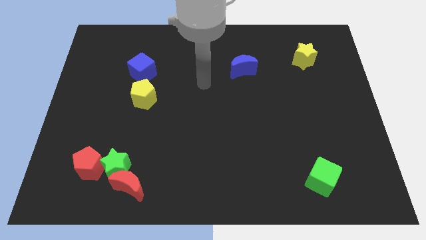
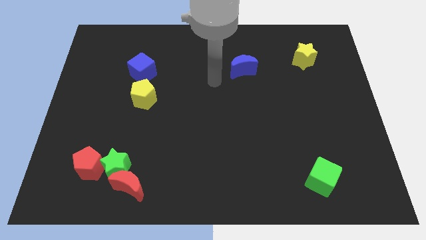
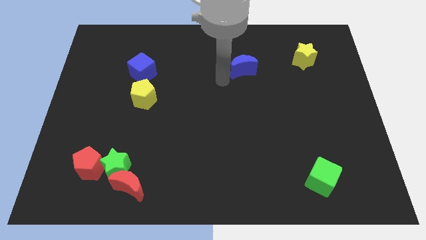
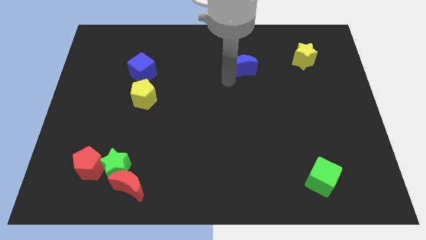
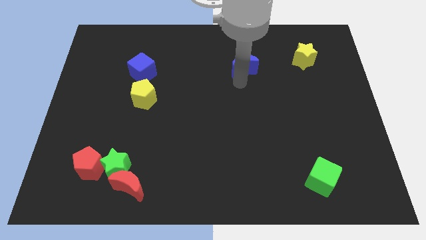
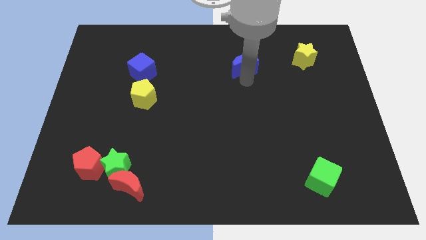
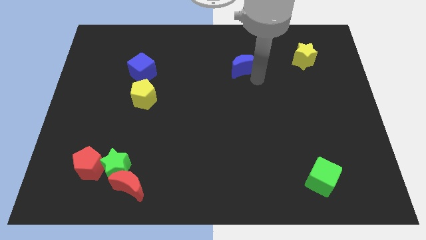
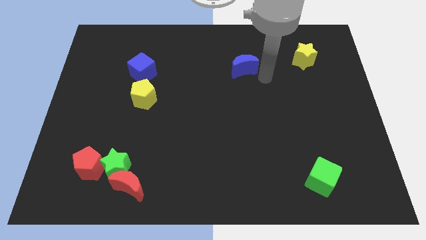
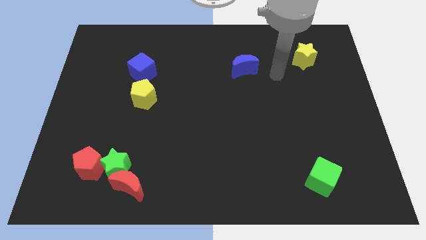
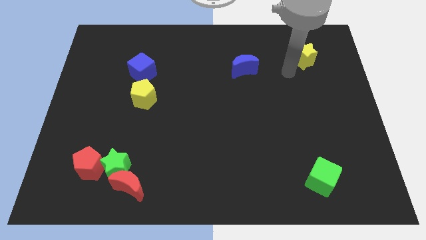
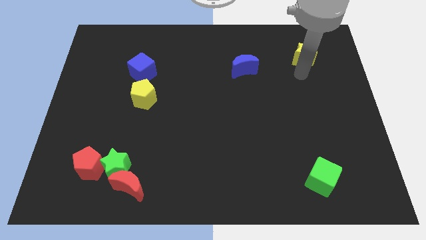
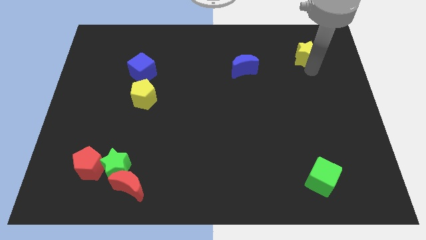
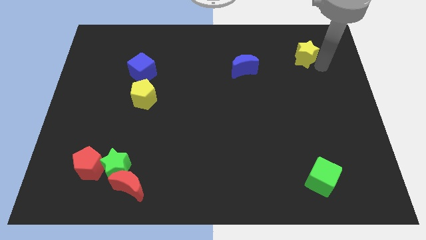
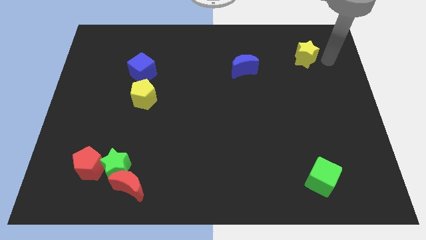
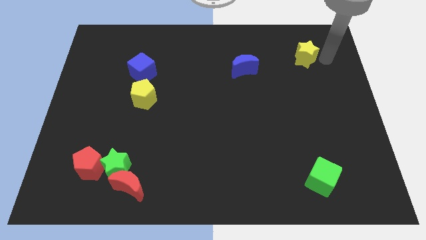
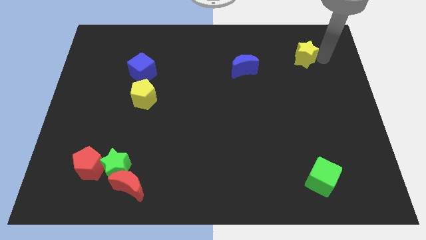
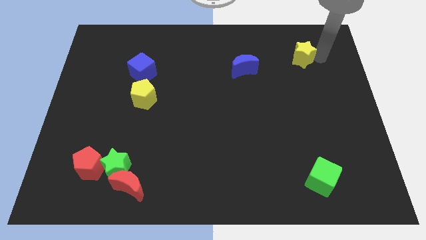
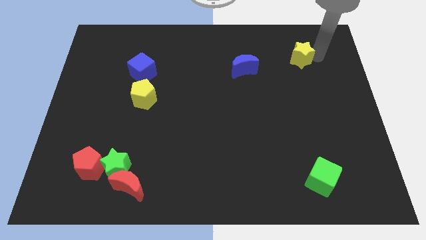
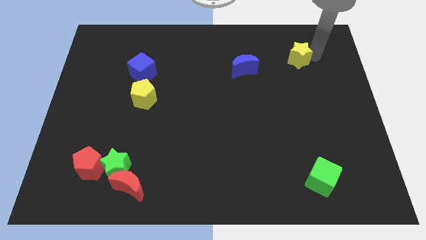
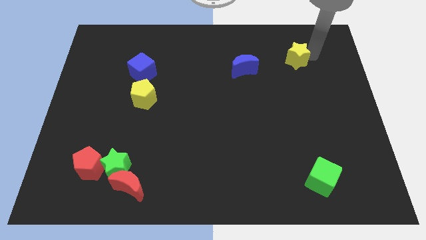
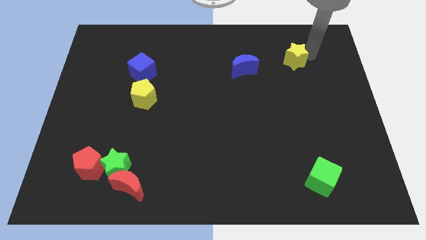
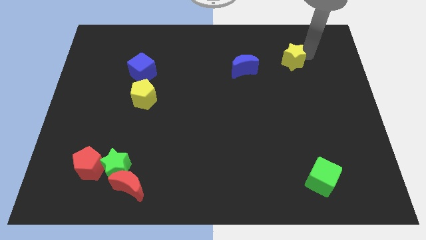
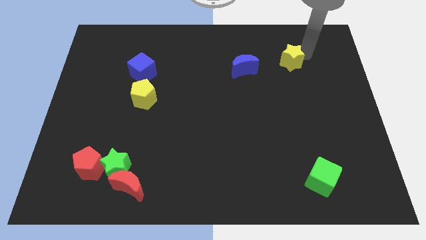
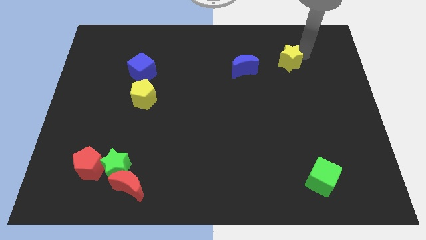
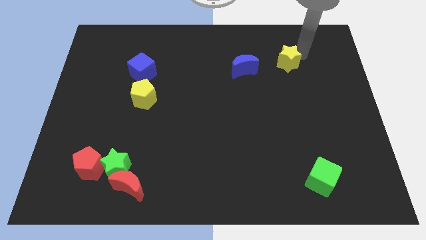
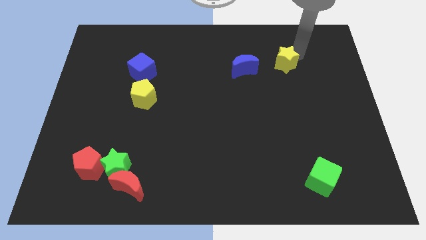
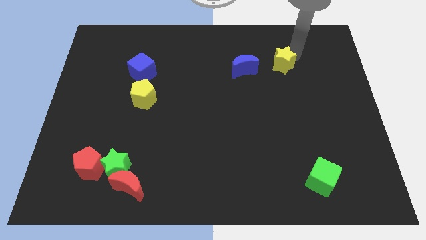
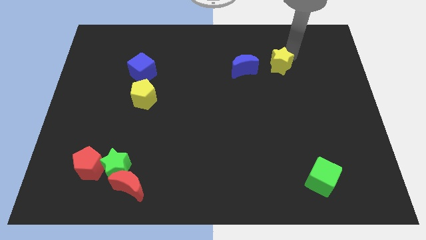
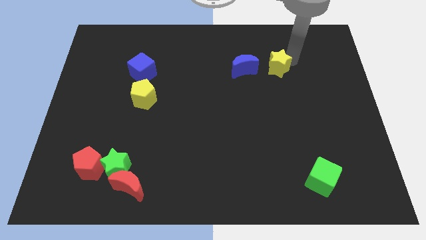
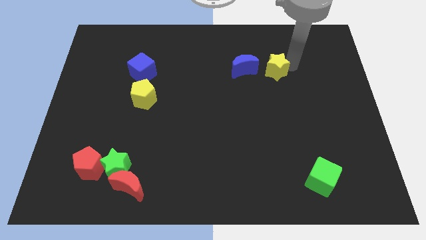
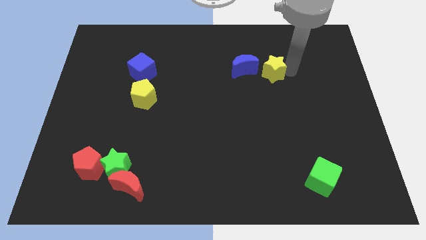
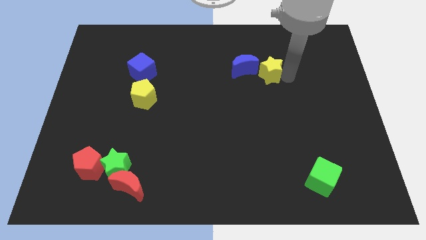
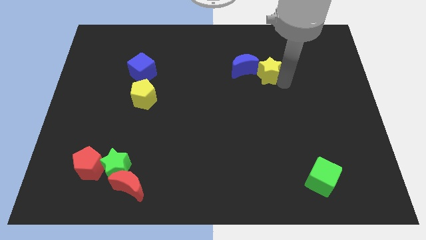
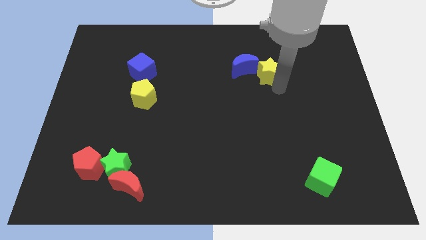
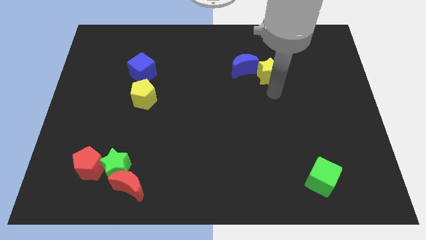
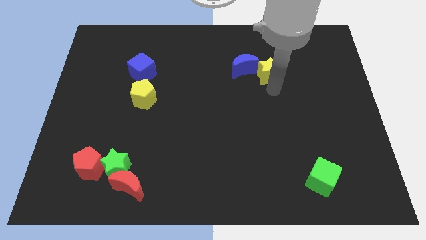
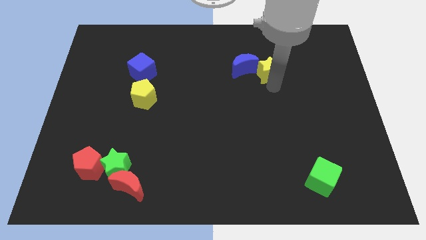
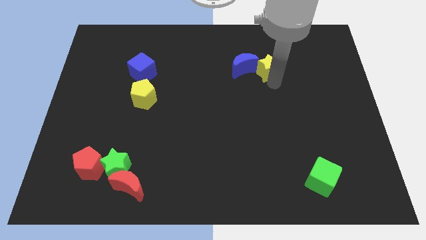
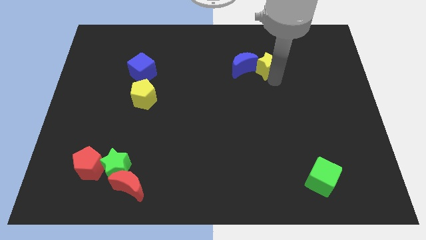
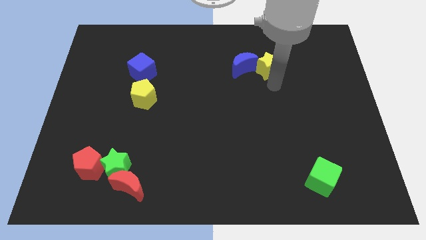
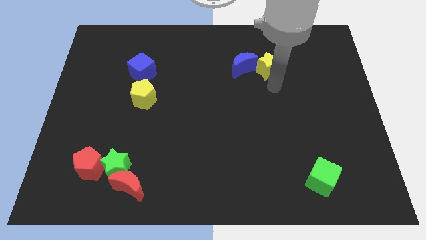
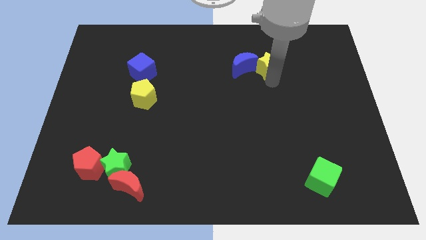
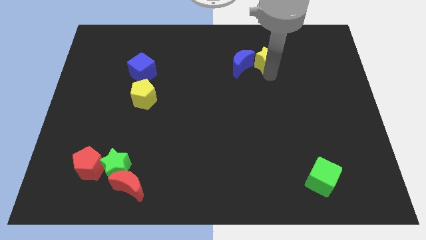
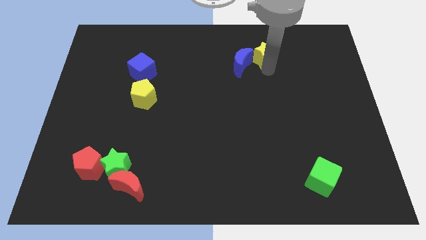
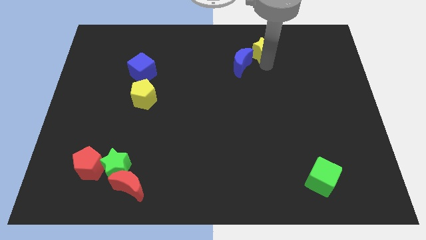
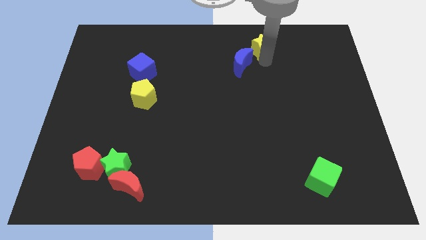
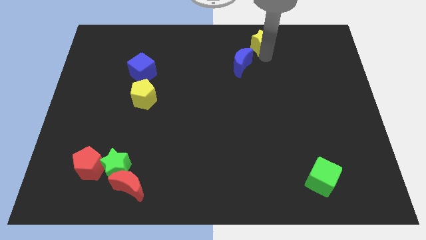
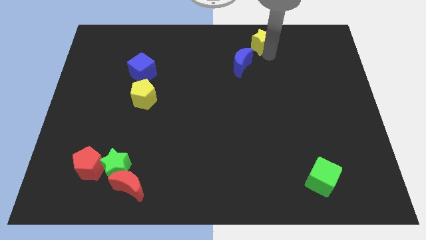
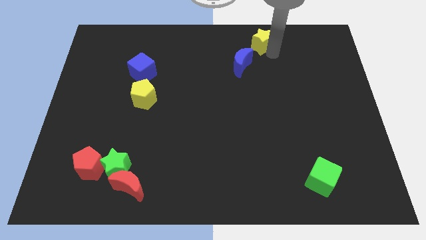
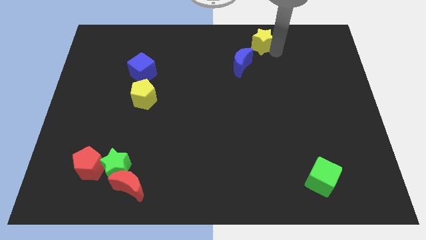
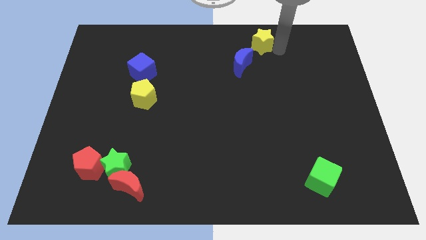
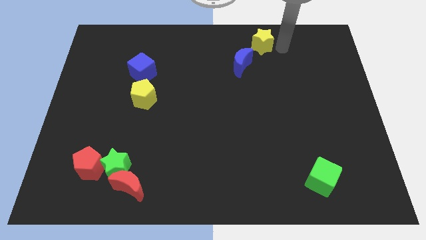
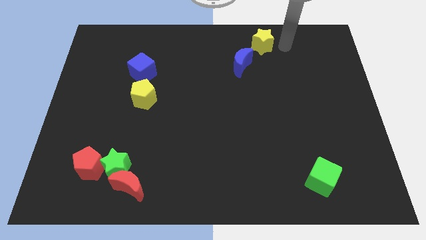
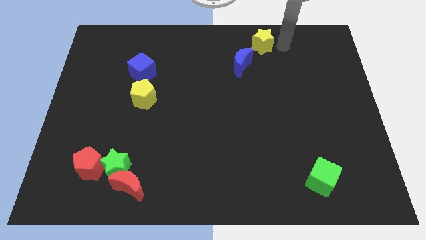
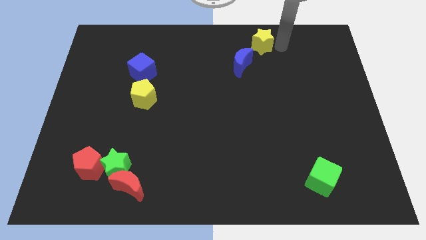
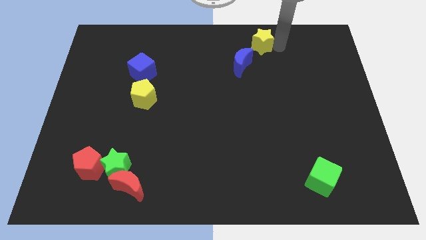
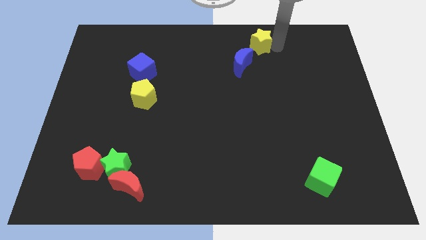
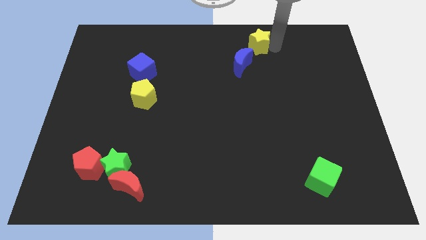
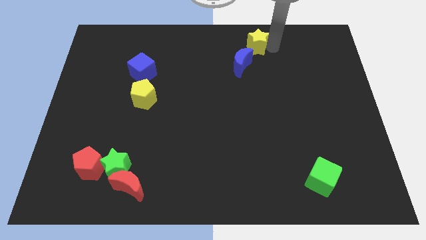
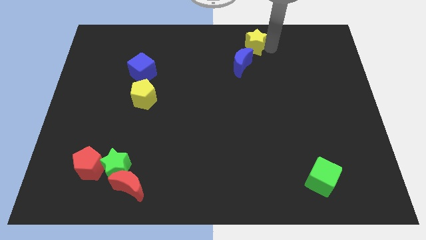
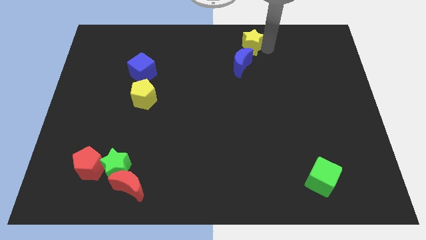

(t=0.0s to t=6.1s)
move the yellow star to the top
